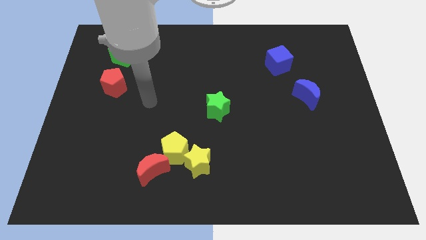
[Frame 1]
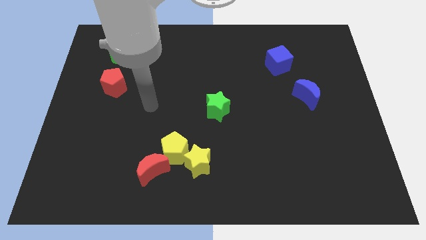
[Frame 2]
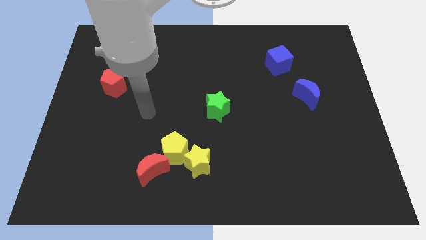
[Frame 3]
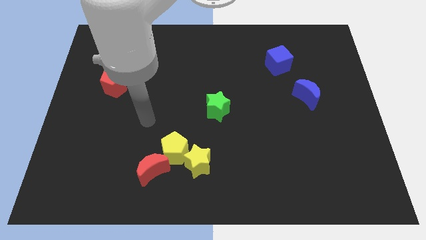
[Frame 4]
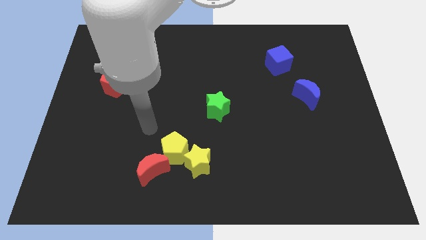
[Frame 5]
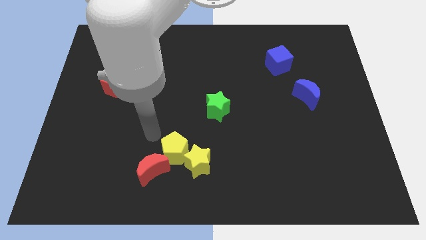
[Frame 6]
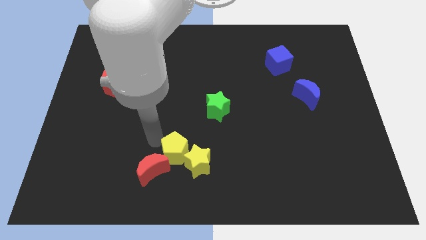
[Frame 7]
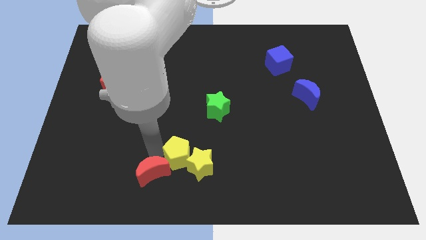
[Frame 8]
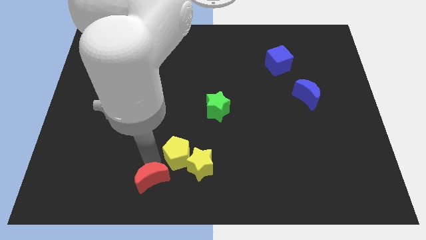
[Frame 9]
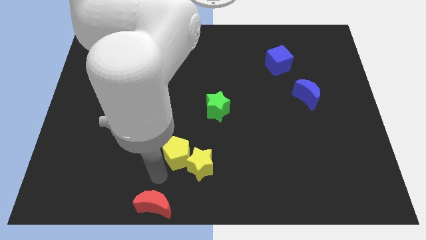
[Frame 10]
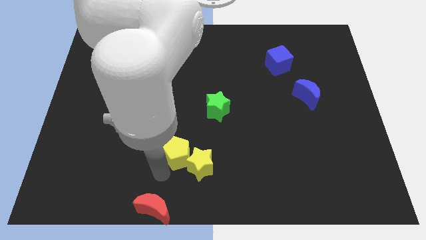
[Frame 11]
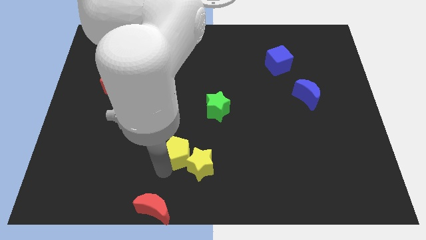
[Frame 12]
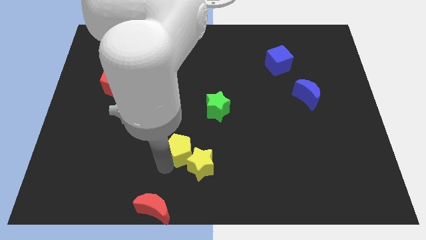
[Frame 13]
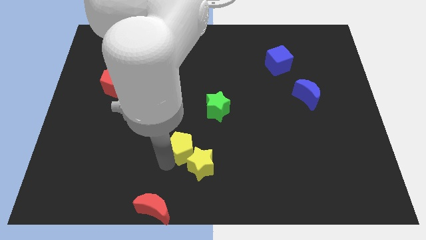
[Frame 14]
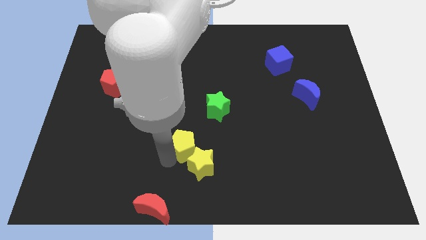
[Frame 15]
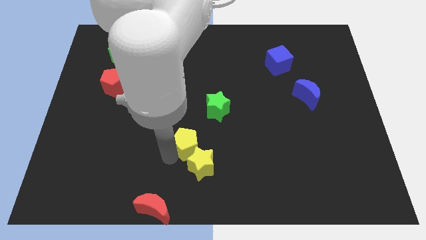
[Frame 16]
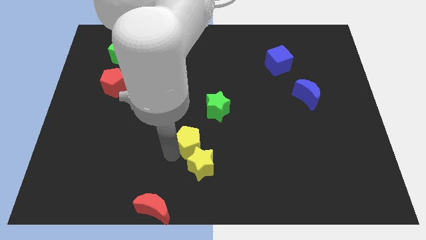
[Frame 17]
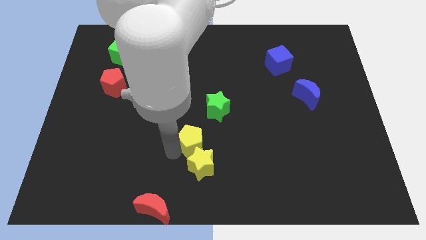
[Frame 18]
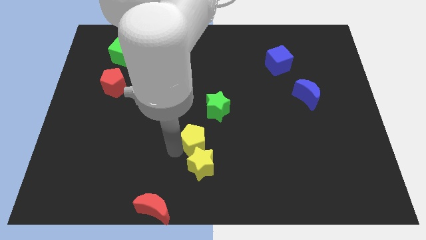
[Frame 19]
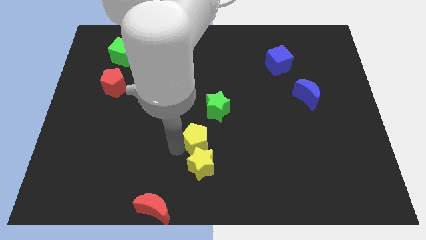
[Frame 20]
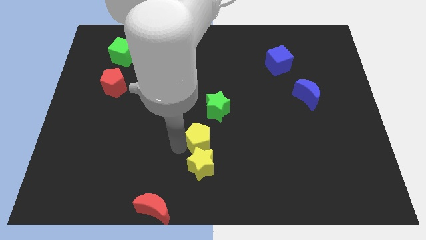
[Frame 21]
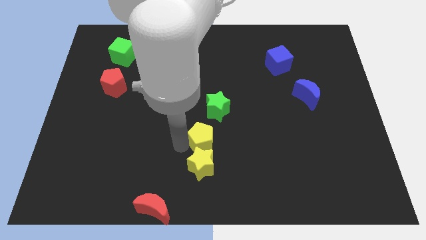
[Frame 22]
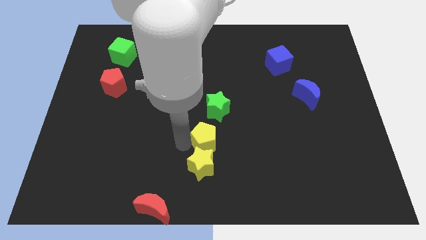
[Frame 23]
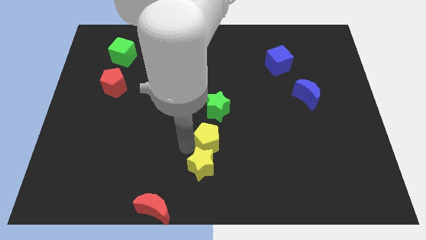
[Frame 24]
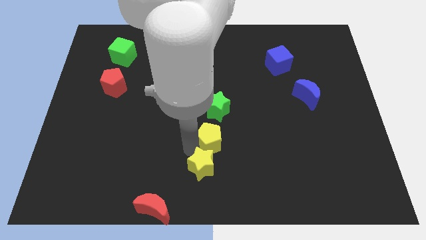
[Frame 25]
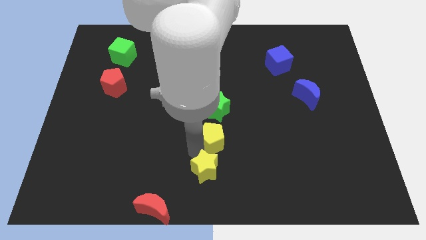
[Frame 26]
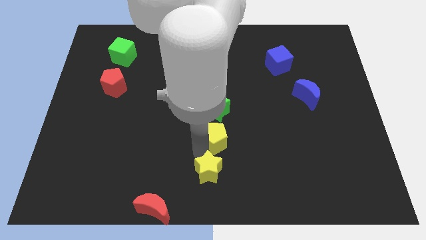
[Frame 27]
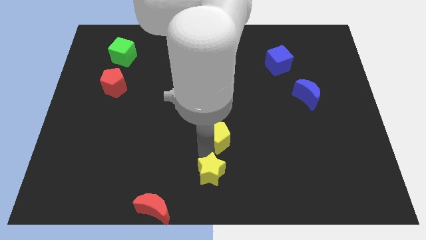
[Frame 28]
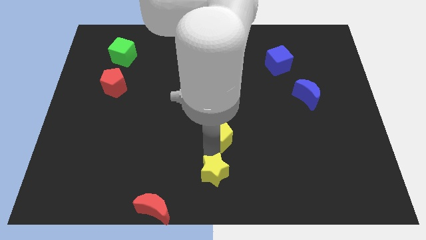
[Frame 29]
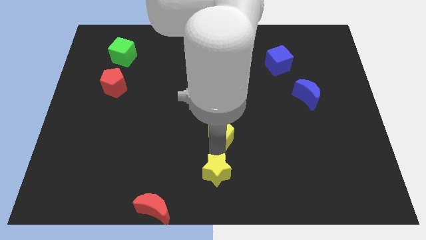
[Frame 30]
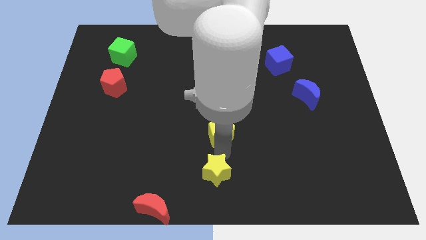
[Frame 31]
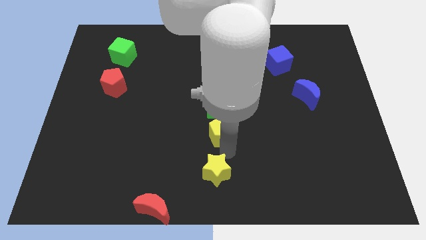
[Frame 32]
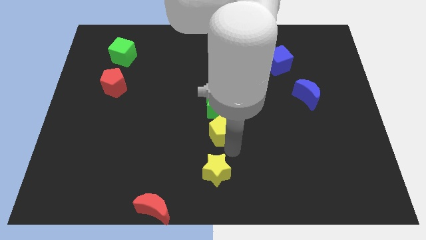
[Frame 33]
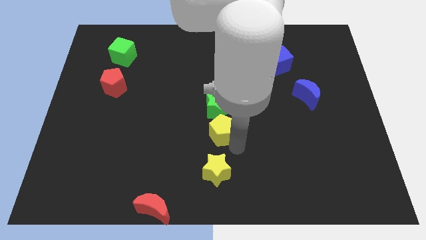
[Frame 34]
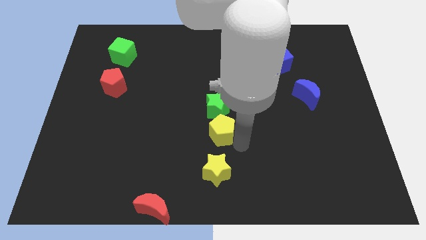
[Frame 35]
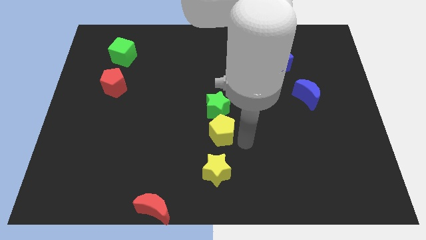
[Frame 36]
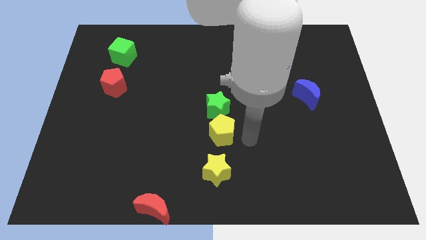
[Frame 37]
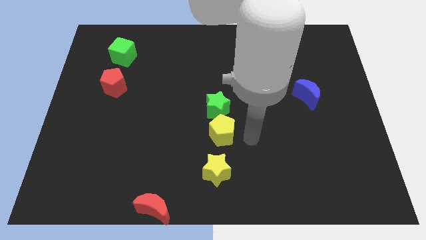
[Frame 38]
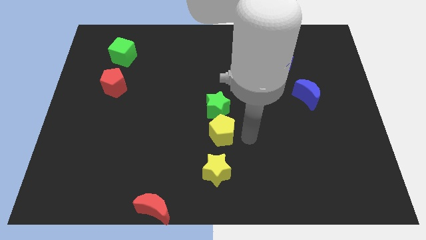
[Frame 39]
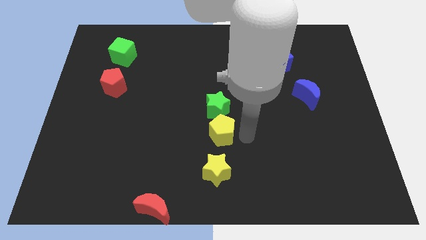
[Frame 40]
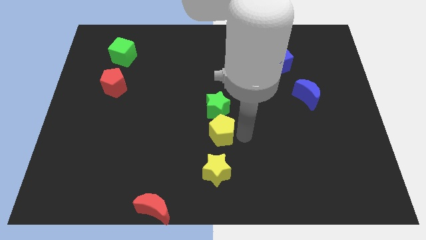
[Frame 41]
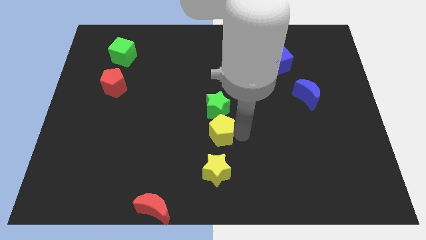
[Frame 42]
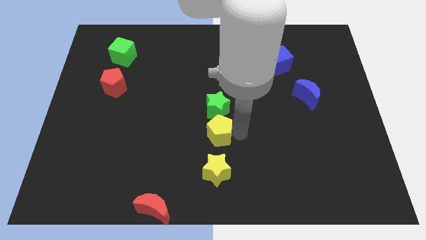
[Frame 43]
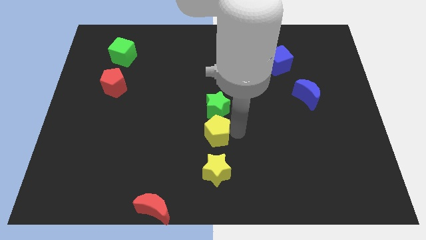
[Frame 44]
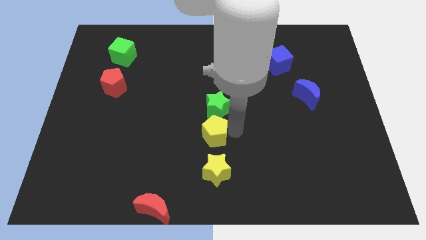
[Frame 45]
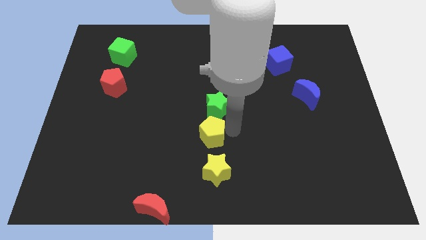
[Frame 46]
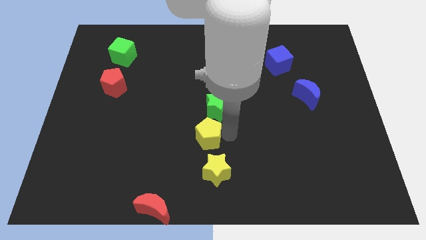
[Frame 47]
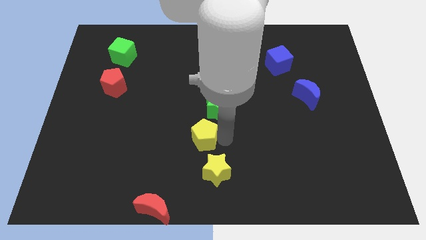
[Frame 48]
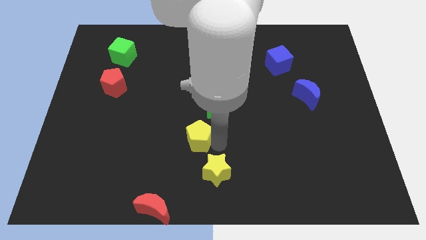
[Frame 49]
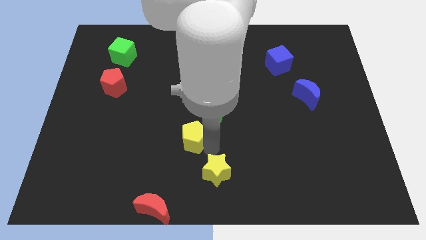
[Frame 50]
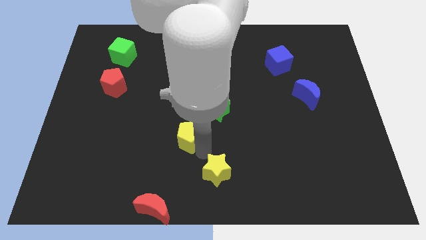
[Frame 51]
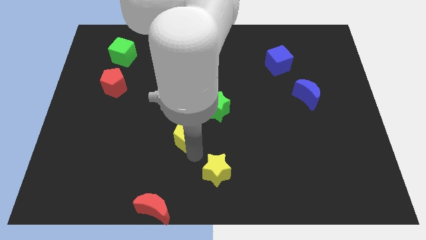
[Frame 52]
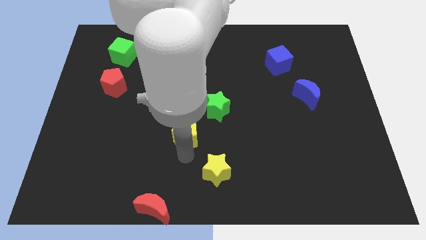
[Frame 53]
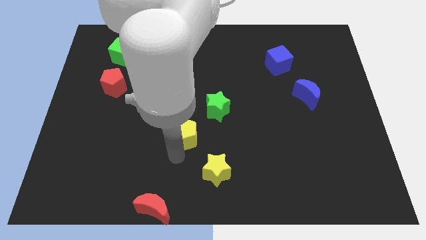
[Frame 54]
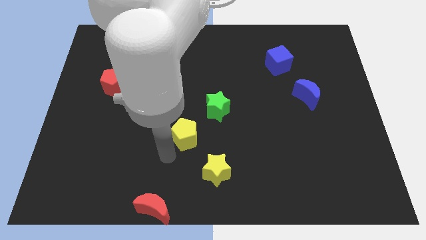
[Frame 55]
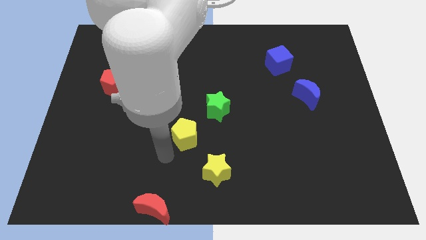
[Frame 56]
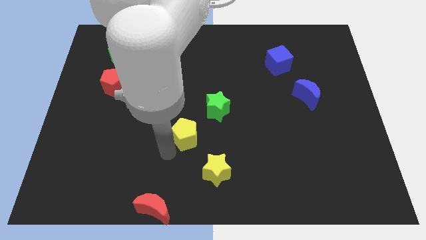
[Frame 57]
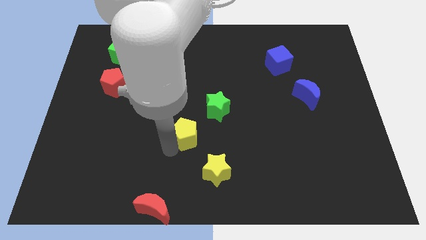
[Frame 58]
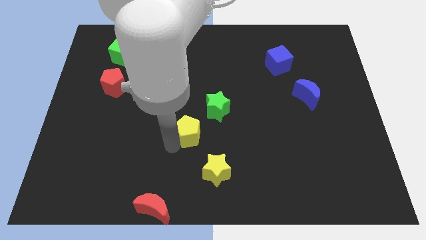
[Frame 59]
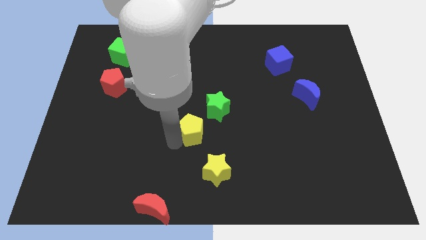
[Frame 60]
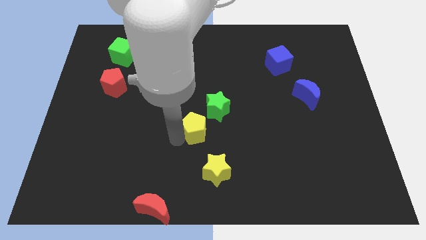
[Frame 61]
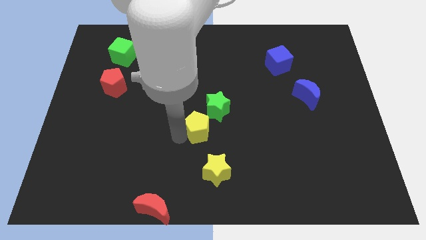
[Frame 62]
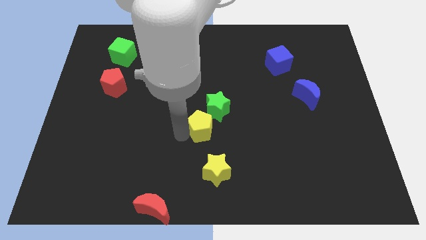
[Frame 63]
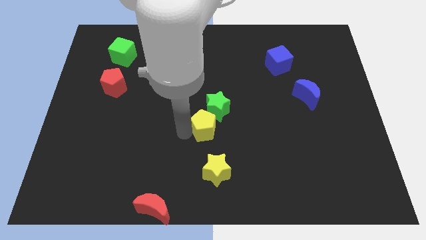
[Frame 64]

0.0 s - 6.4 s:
put the yellow pentagon close to the green star
